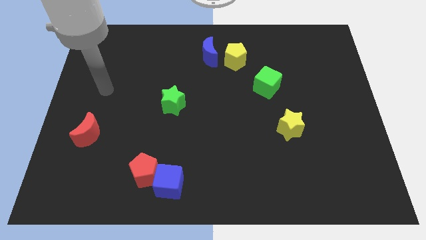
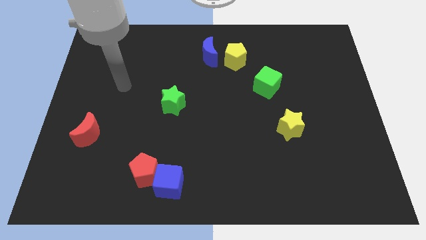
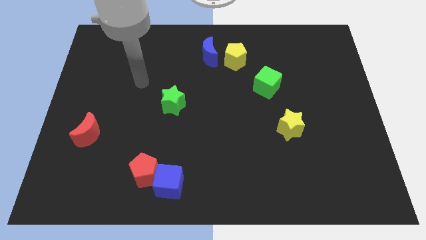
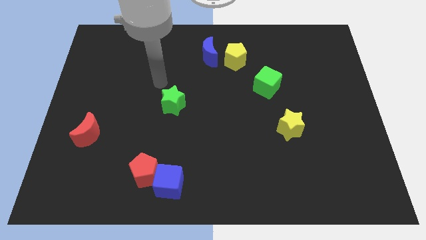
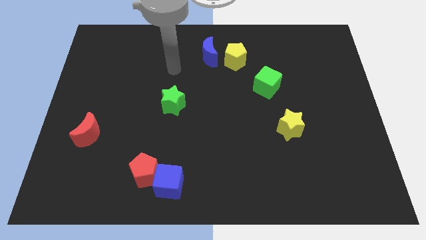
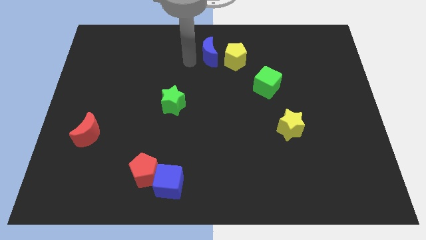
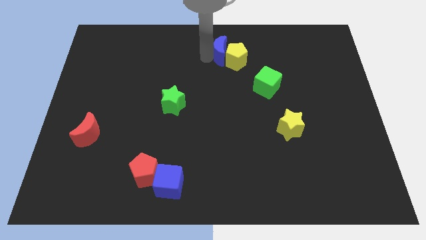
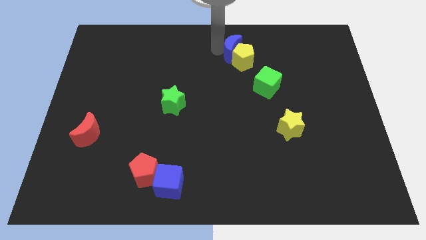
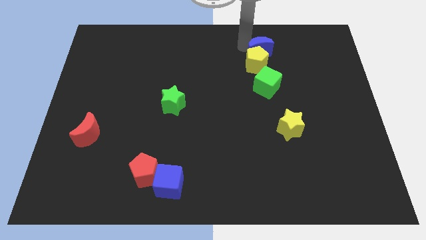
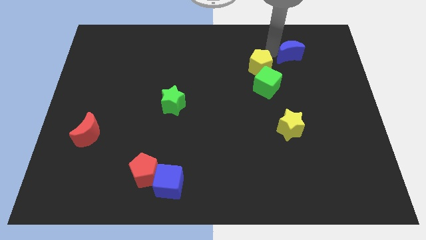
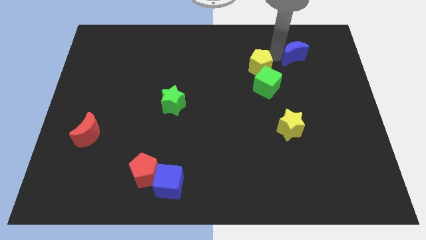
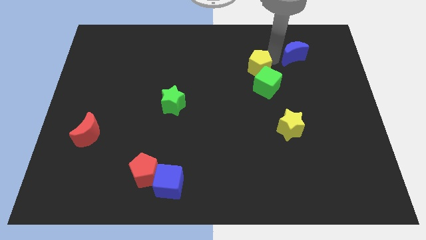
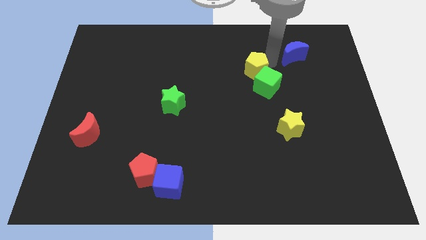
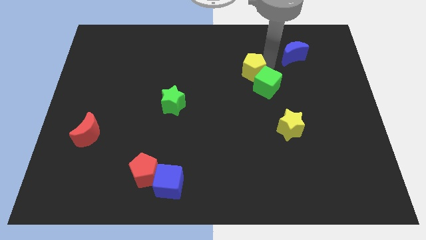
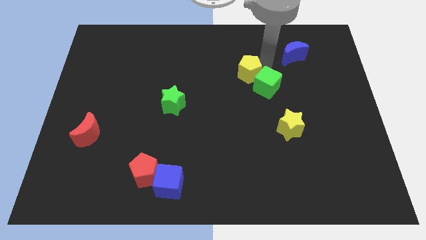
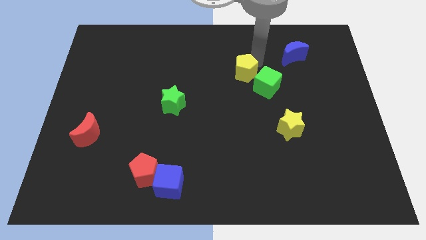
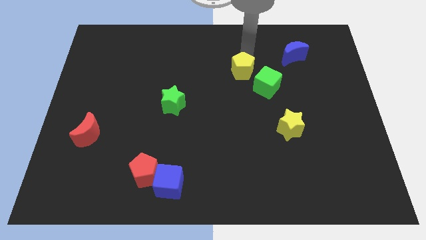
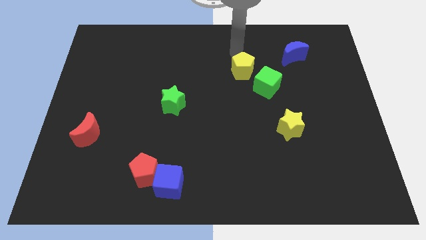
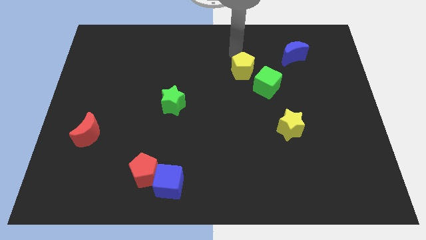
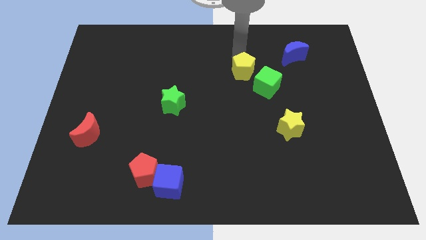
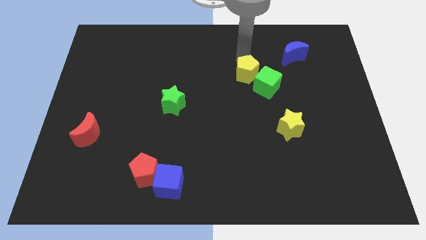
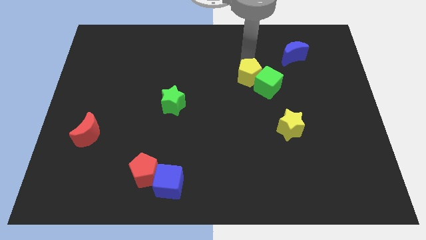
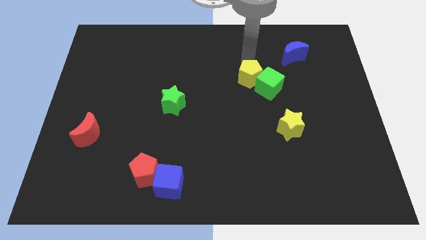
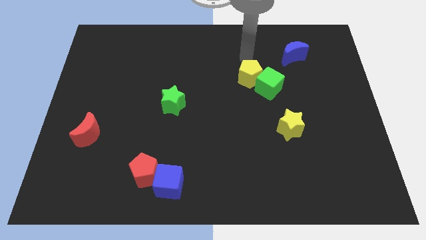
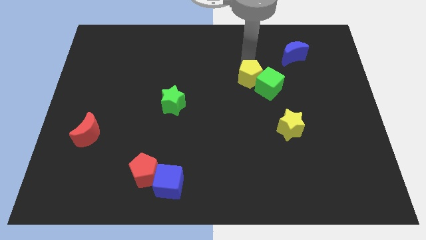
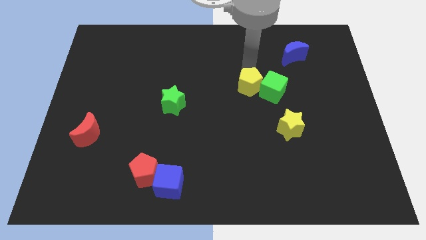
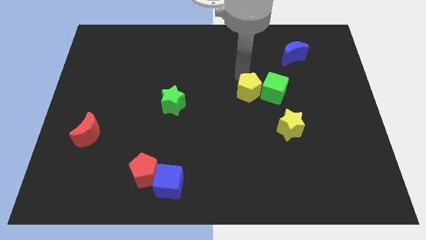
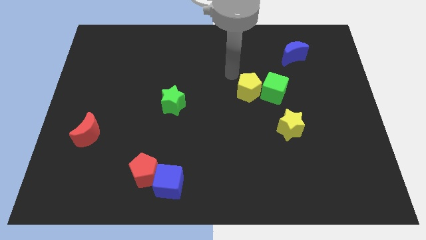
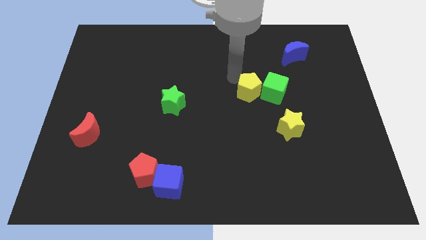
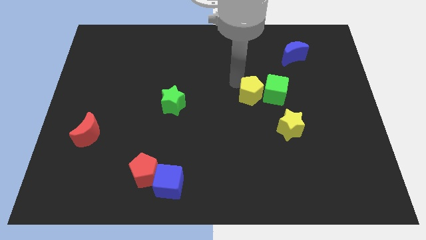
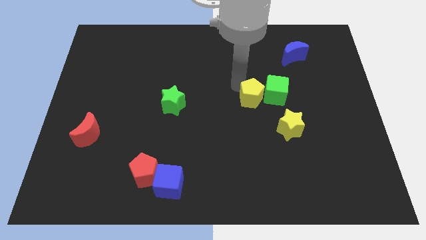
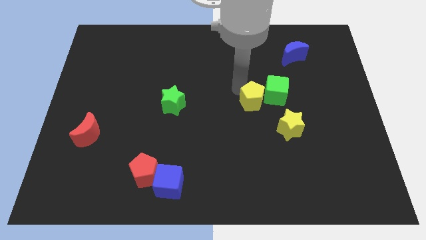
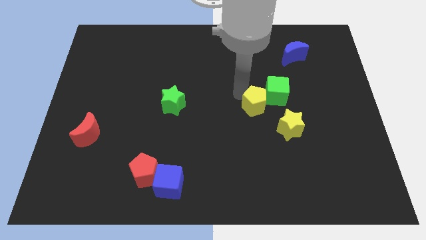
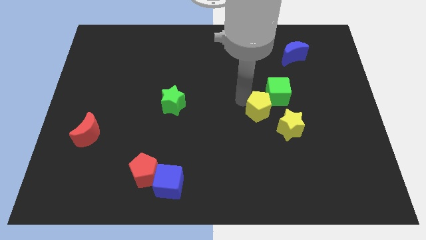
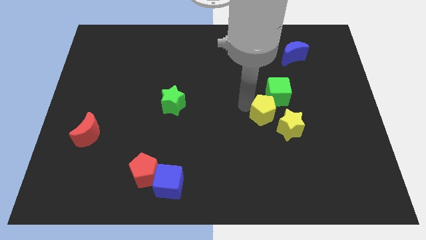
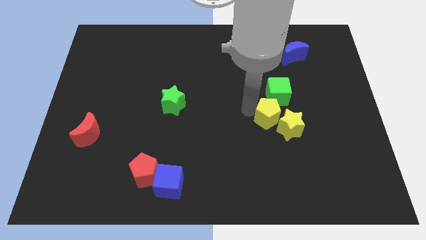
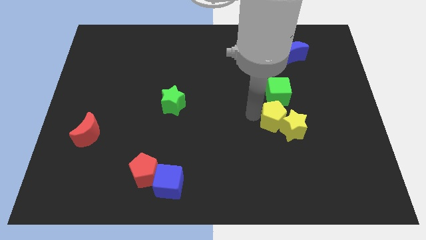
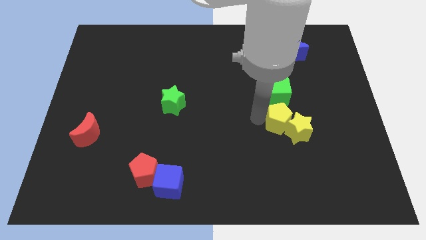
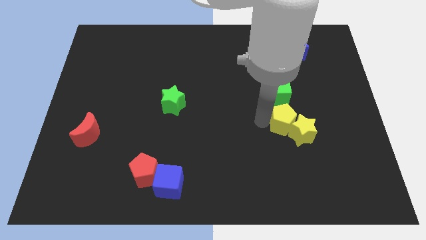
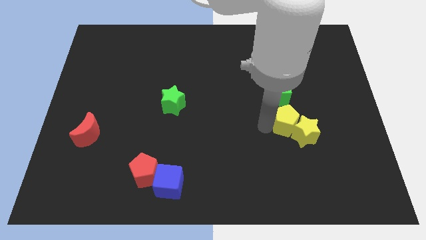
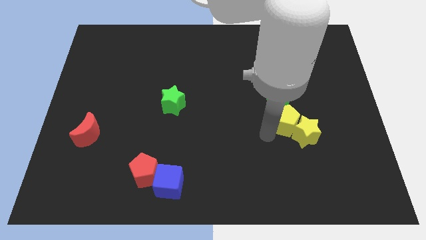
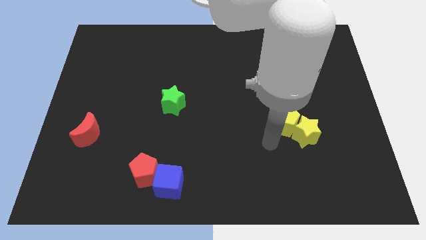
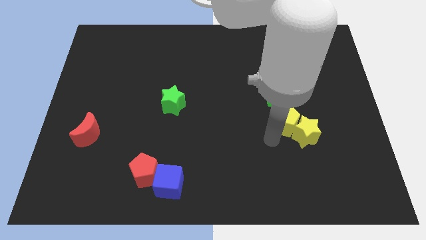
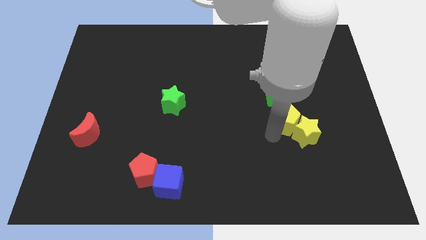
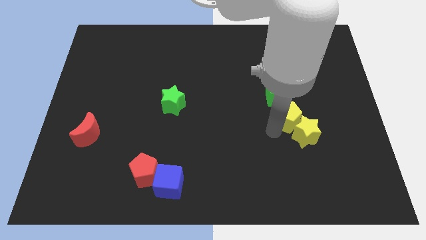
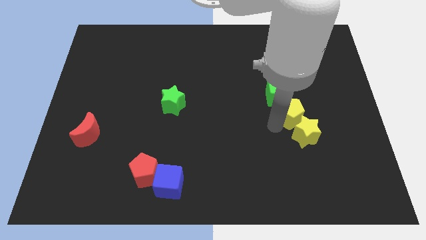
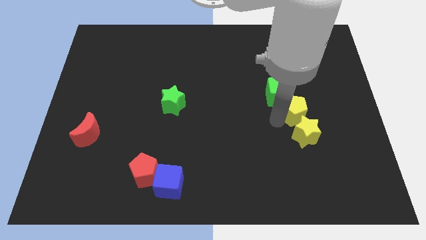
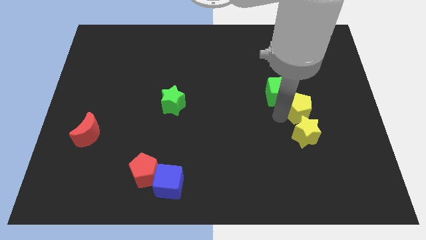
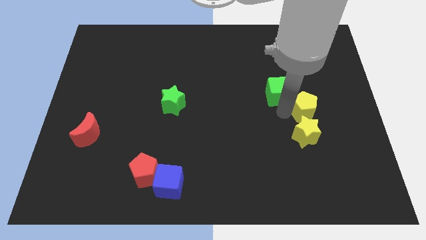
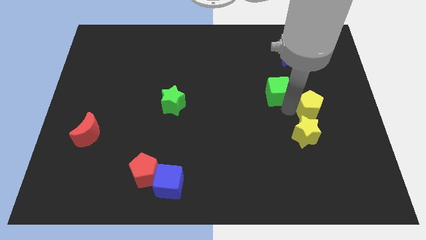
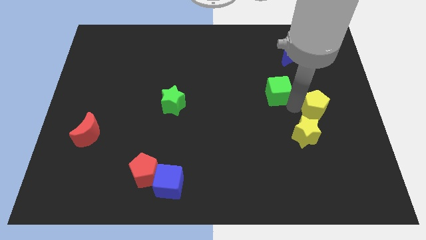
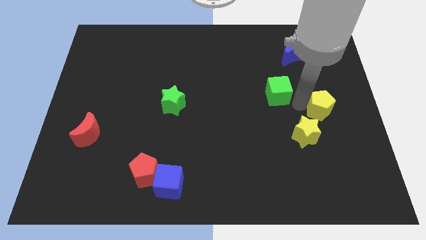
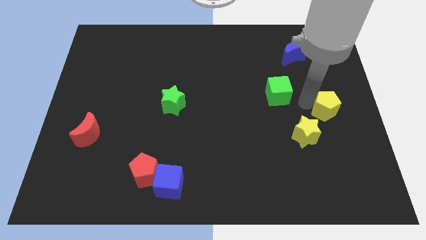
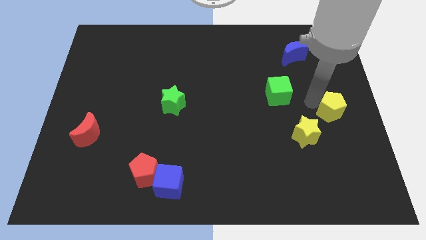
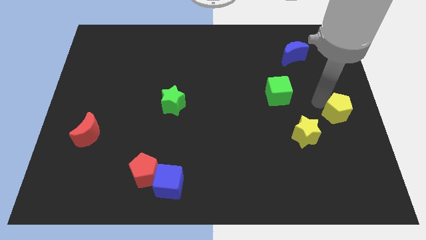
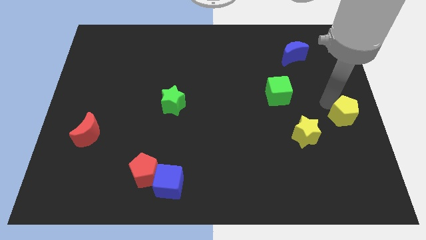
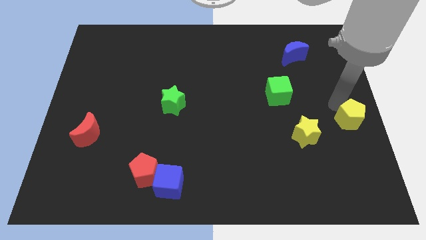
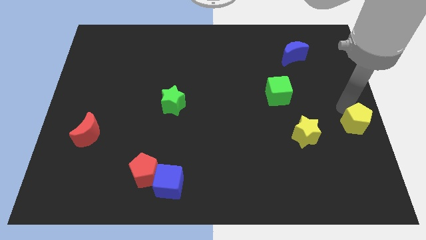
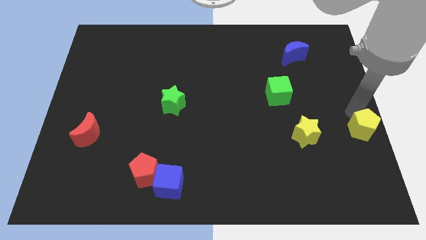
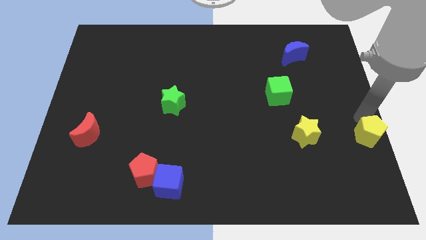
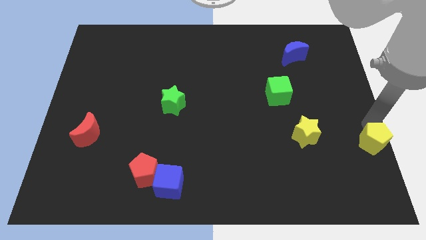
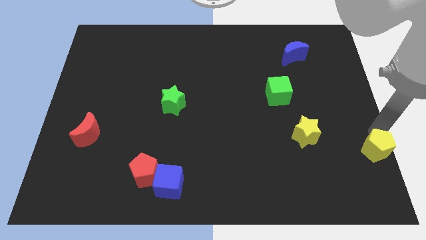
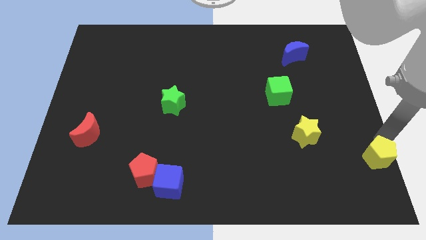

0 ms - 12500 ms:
slide the yellow pentagon to the bottom right of the board

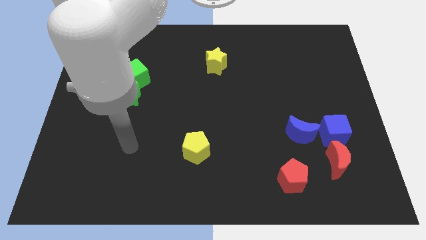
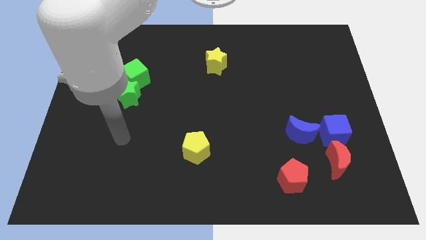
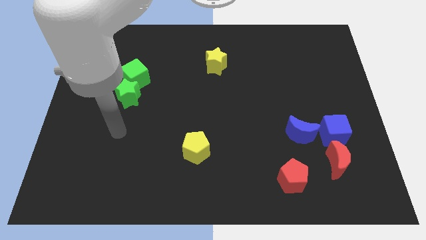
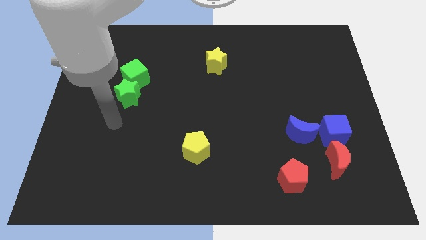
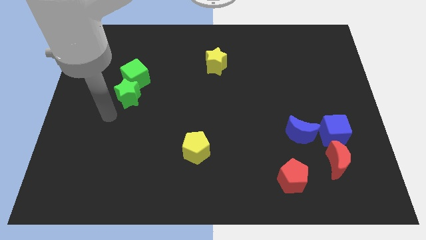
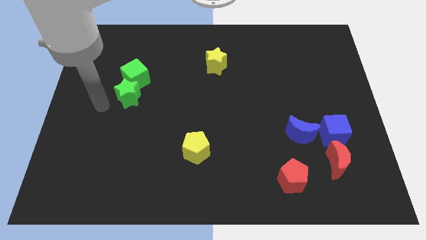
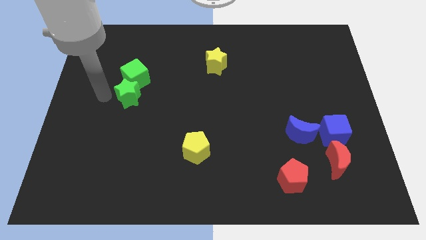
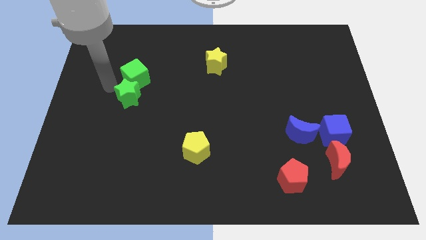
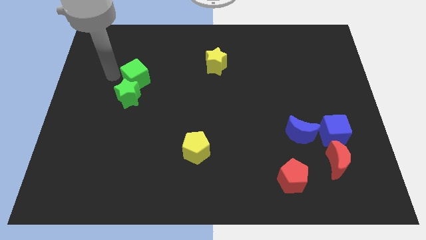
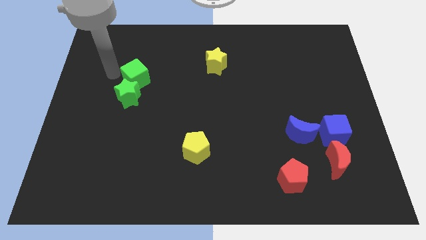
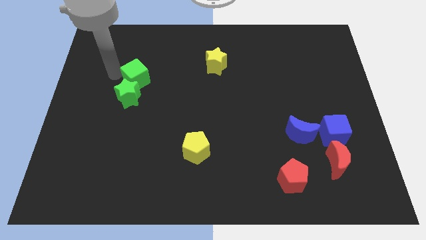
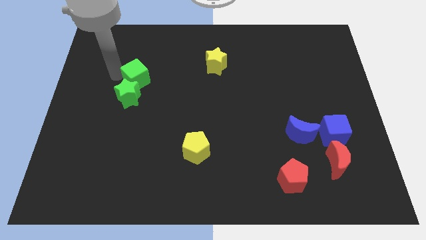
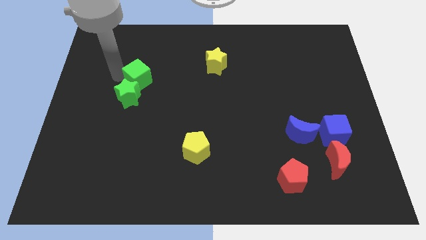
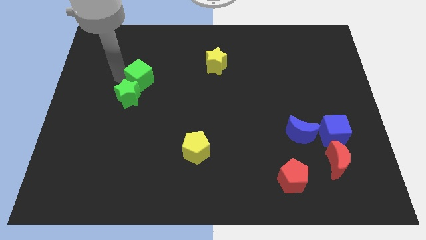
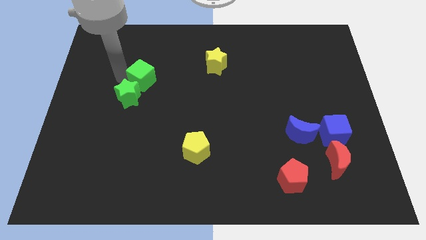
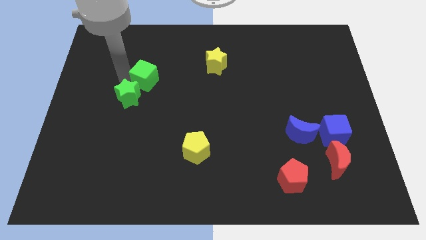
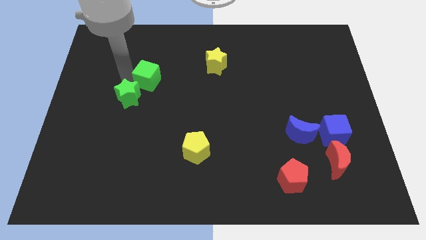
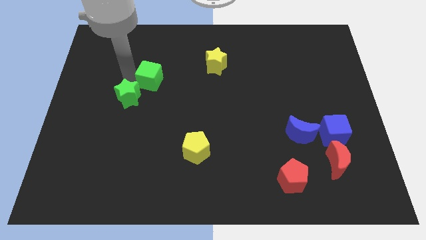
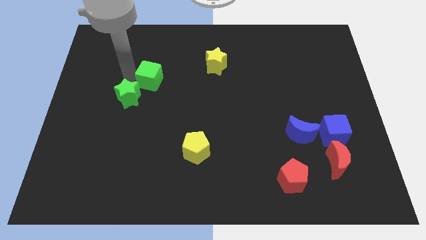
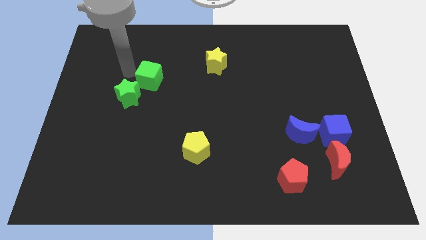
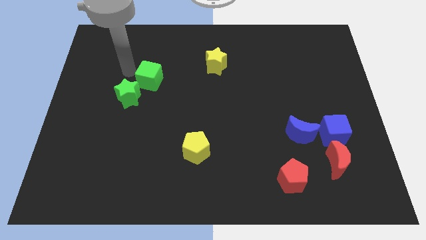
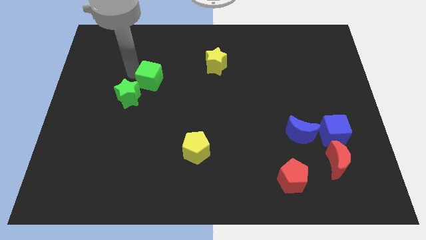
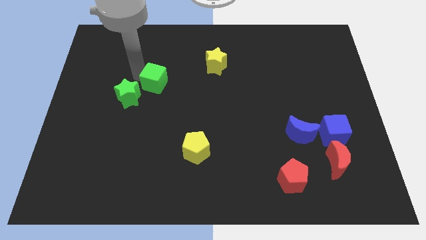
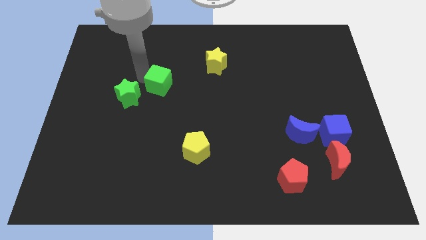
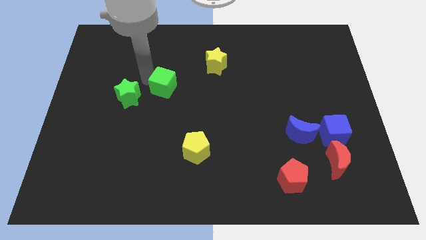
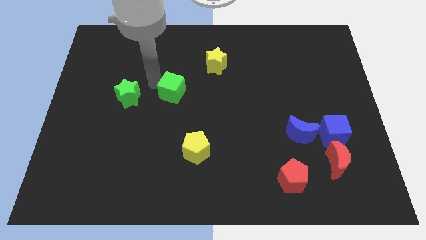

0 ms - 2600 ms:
push the green cube to the center of the board
